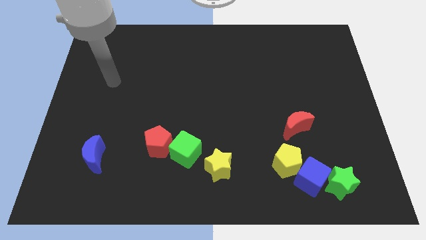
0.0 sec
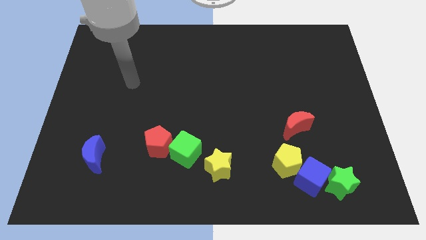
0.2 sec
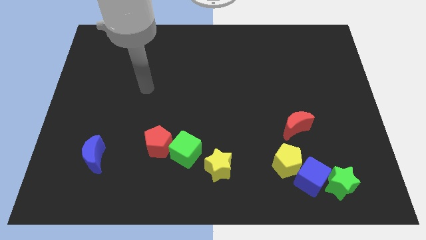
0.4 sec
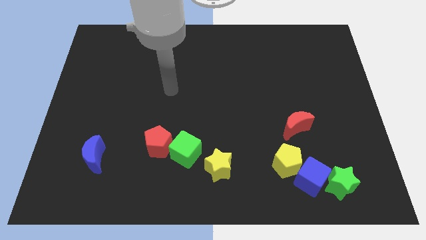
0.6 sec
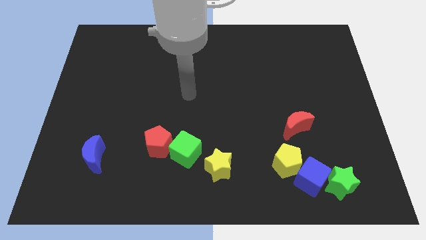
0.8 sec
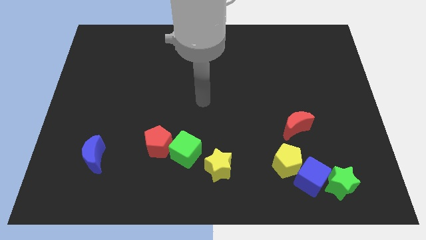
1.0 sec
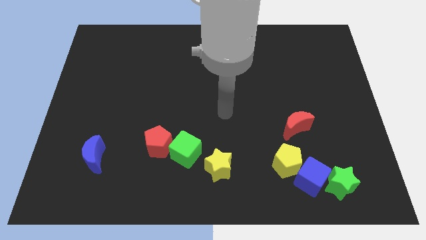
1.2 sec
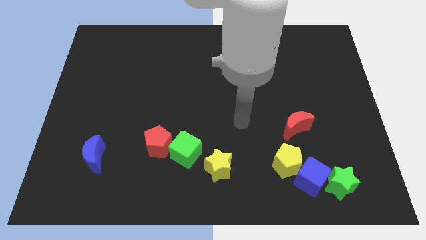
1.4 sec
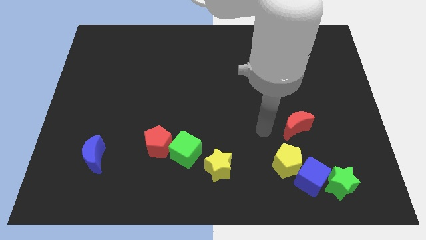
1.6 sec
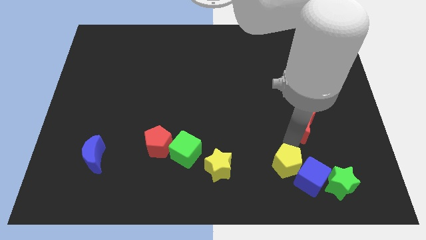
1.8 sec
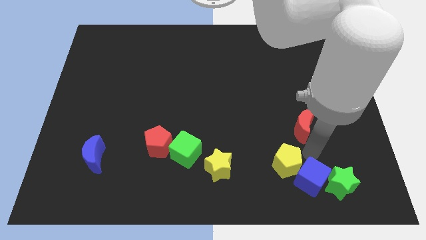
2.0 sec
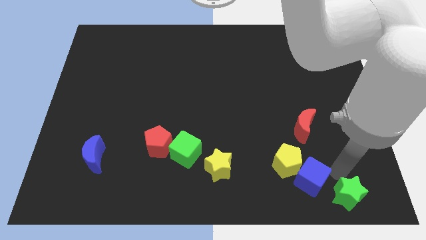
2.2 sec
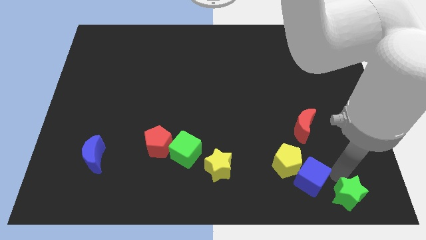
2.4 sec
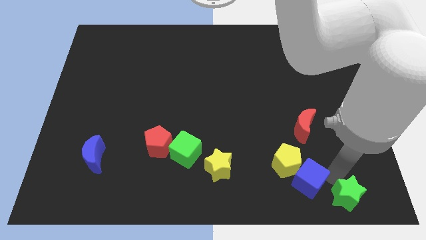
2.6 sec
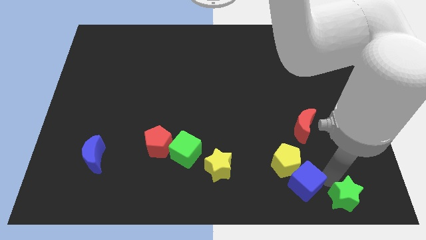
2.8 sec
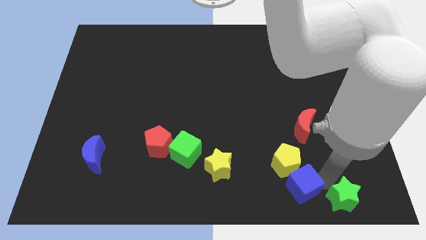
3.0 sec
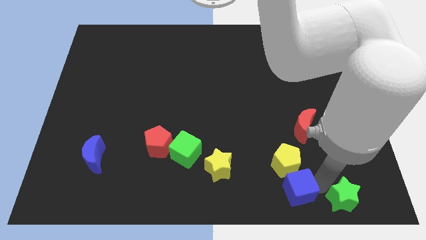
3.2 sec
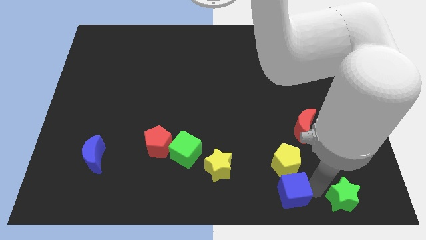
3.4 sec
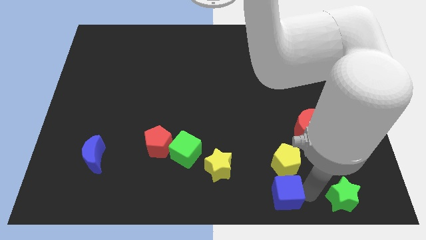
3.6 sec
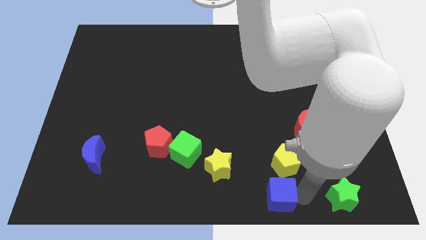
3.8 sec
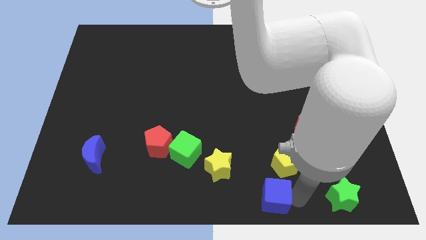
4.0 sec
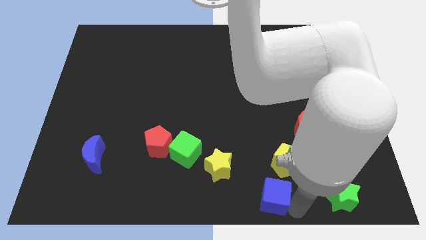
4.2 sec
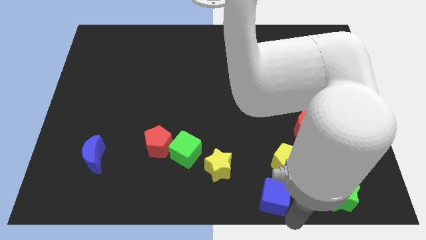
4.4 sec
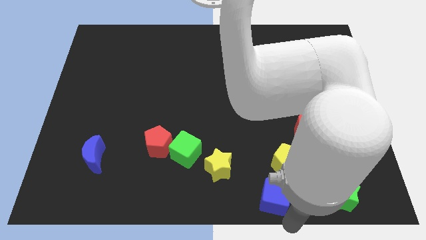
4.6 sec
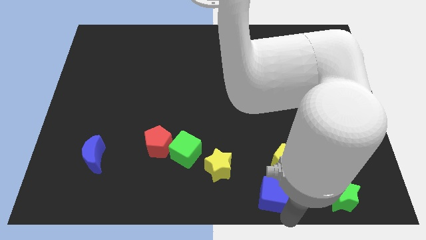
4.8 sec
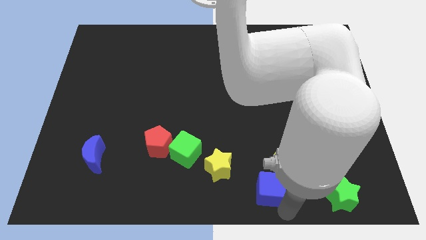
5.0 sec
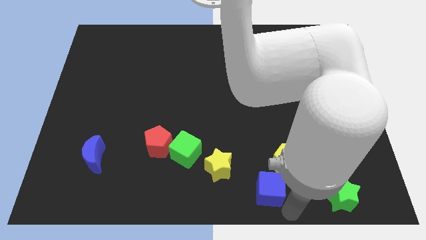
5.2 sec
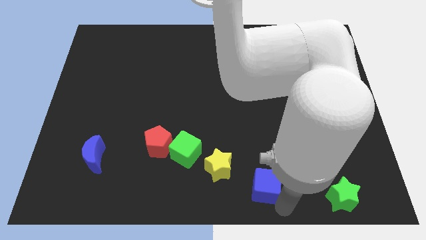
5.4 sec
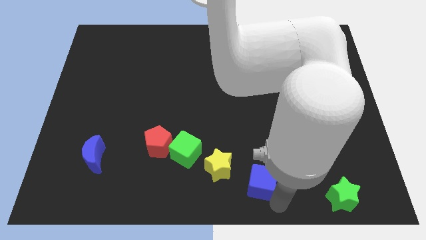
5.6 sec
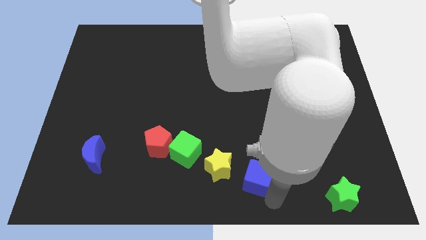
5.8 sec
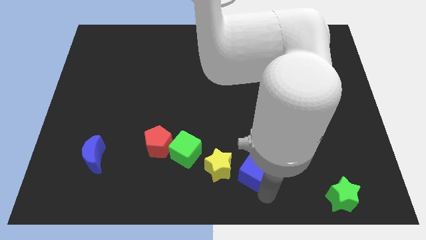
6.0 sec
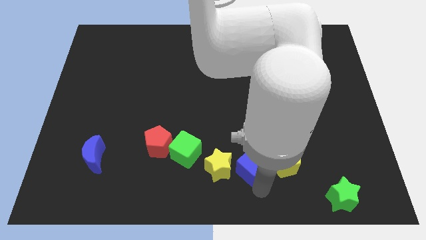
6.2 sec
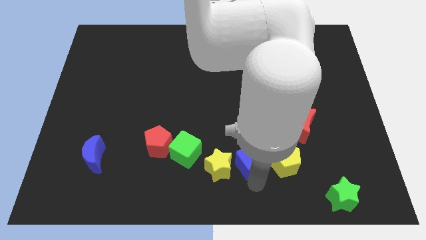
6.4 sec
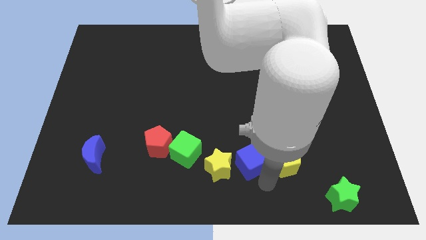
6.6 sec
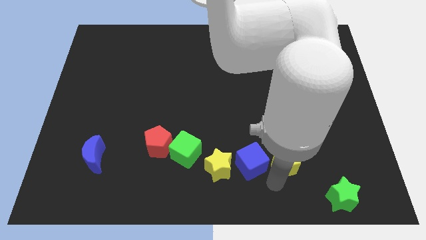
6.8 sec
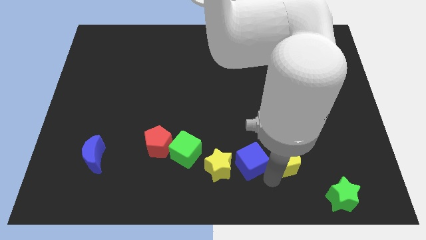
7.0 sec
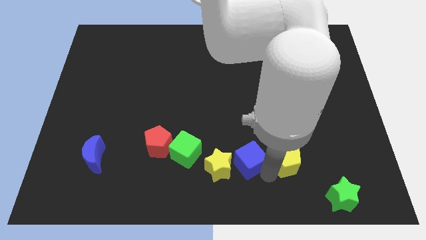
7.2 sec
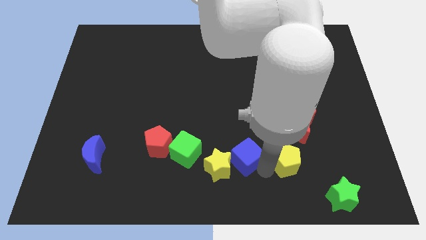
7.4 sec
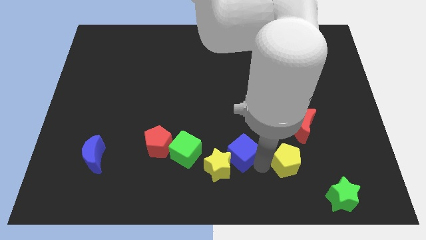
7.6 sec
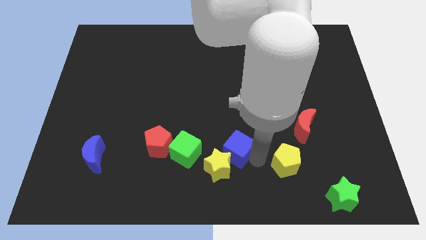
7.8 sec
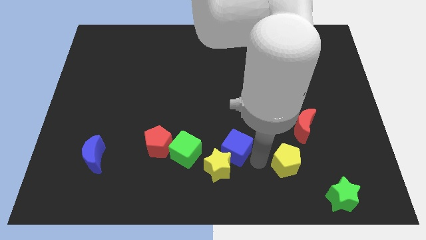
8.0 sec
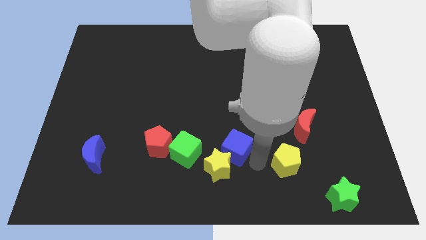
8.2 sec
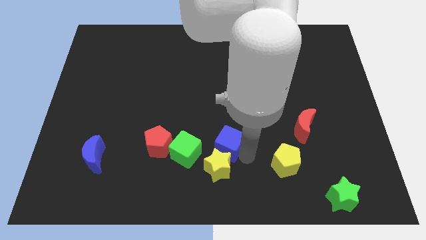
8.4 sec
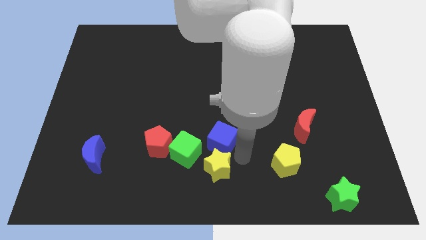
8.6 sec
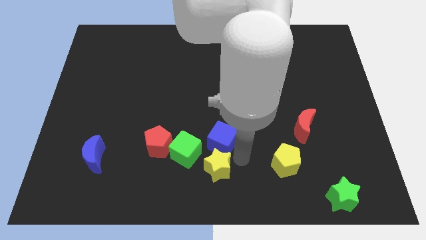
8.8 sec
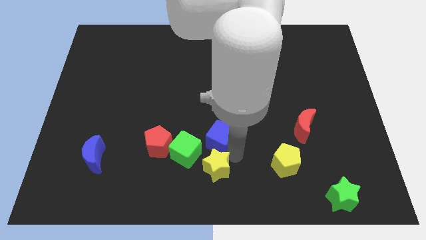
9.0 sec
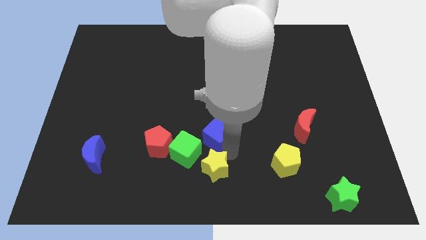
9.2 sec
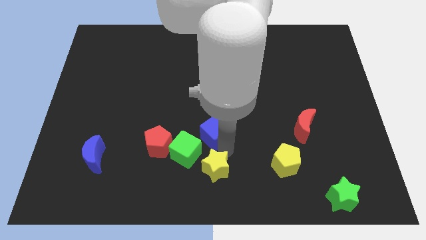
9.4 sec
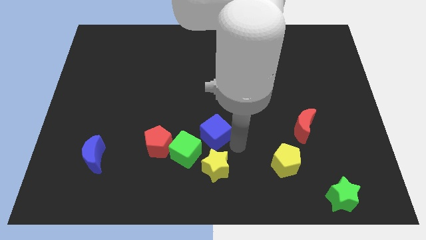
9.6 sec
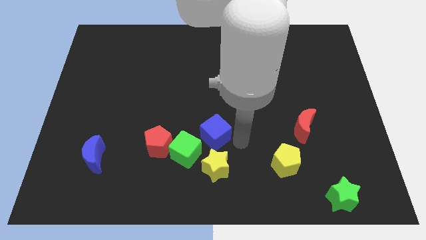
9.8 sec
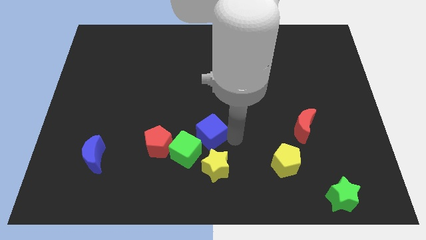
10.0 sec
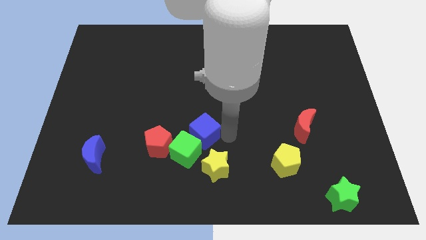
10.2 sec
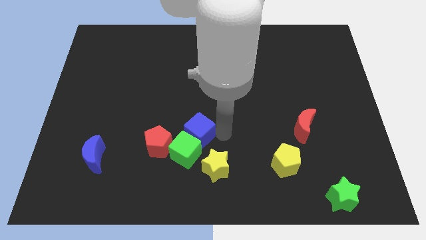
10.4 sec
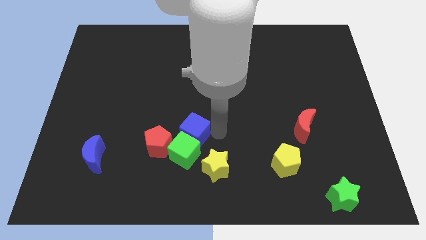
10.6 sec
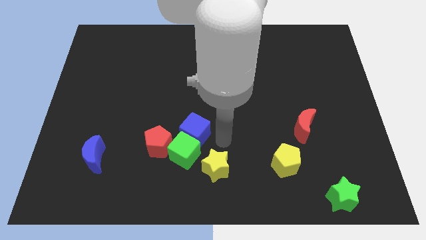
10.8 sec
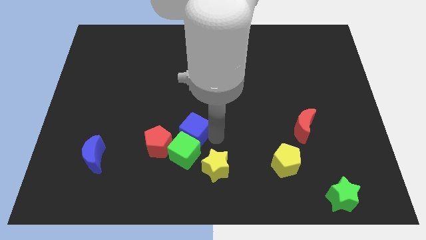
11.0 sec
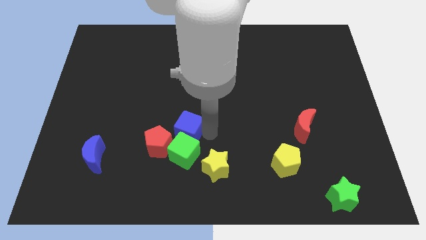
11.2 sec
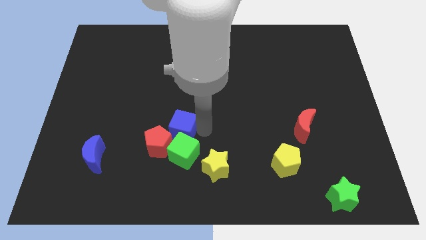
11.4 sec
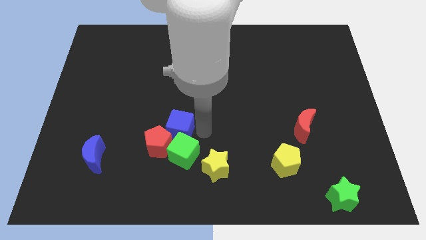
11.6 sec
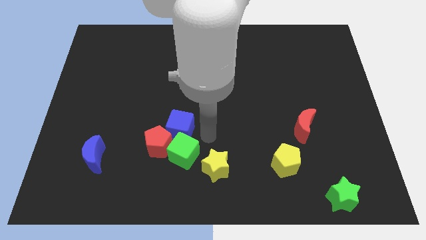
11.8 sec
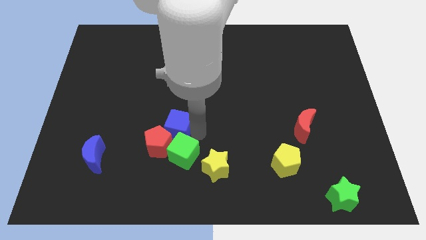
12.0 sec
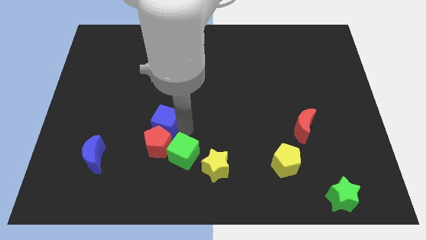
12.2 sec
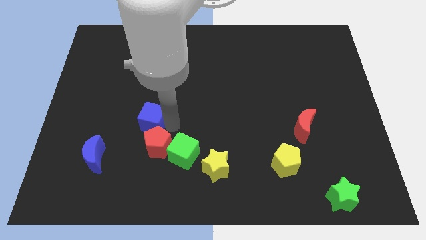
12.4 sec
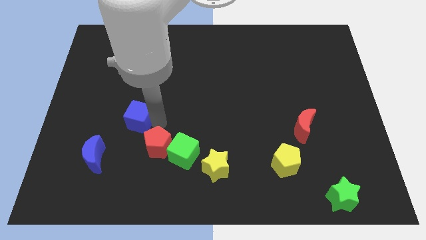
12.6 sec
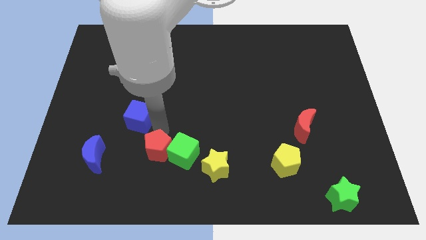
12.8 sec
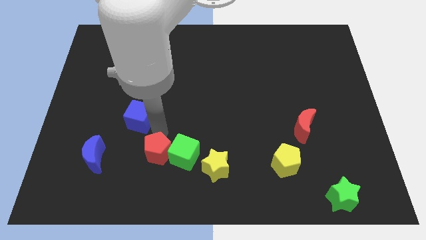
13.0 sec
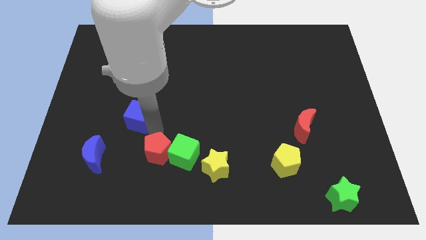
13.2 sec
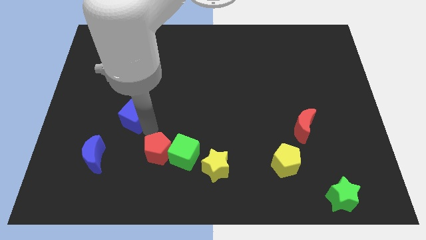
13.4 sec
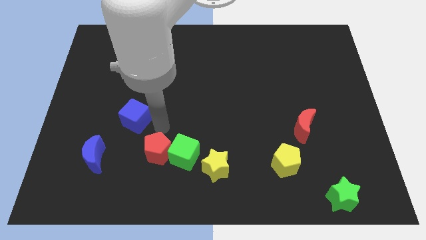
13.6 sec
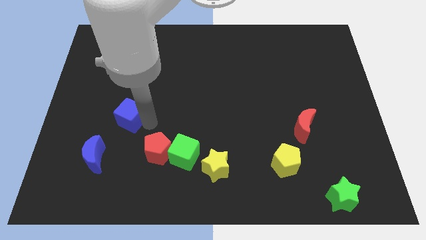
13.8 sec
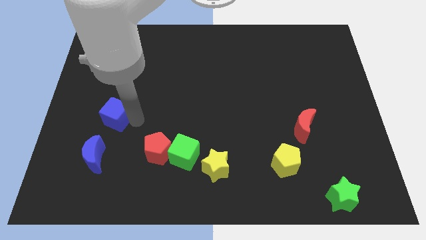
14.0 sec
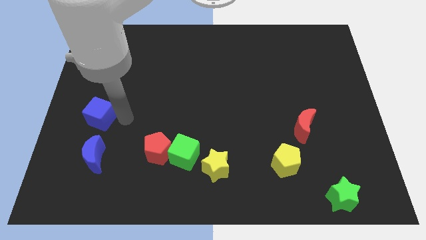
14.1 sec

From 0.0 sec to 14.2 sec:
slide the blue cube to the left side
